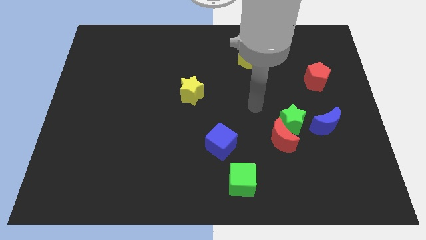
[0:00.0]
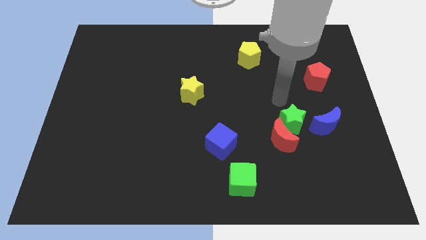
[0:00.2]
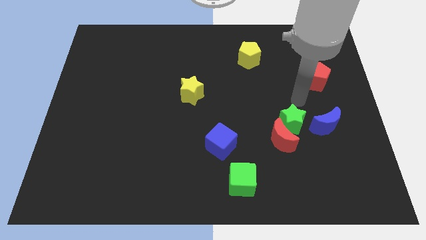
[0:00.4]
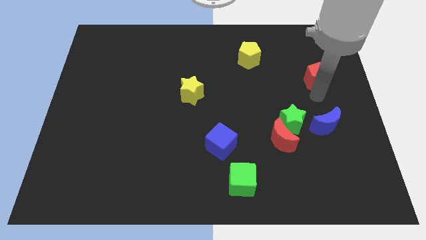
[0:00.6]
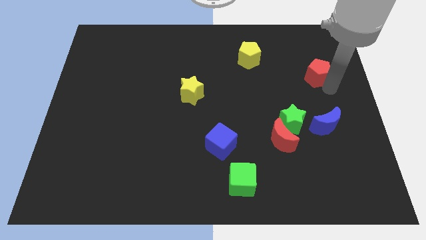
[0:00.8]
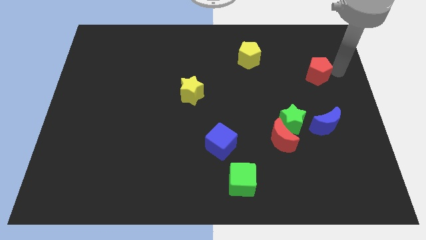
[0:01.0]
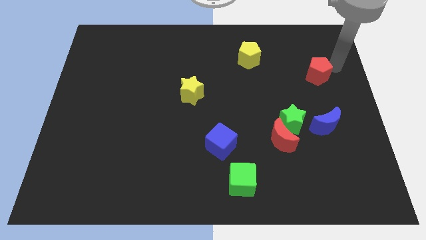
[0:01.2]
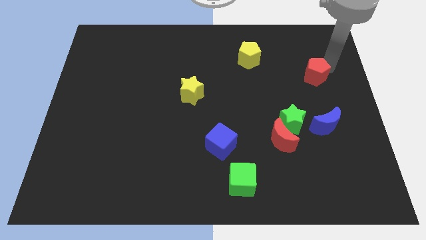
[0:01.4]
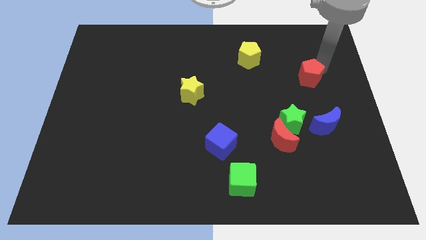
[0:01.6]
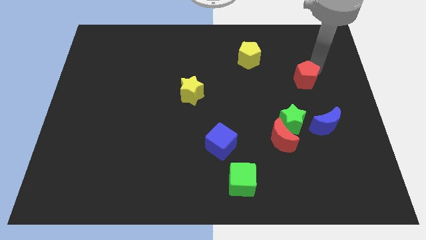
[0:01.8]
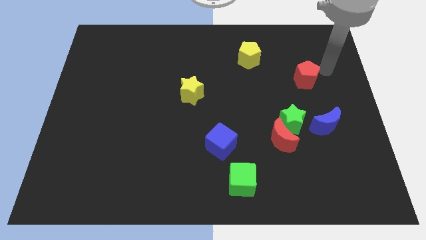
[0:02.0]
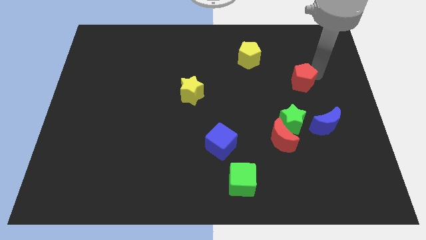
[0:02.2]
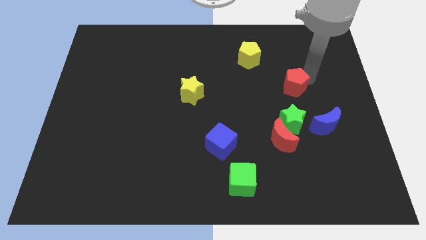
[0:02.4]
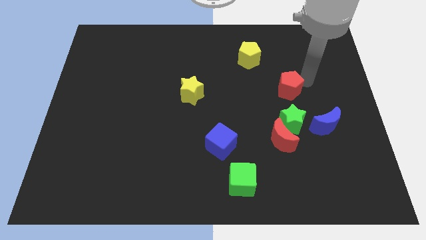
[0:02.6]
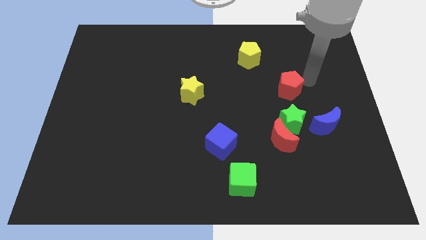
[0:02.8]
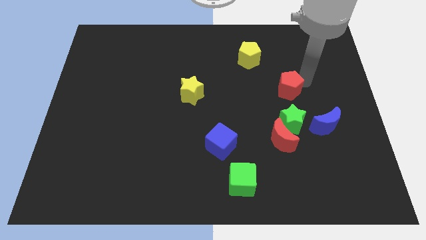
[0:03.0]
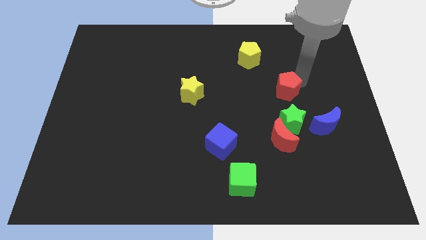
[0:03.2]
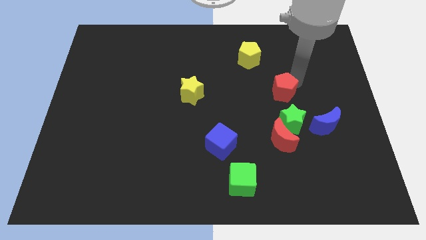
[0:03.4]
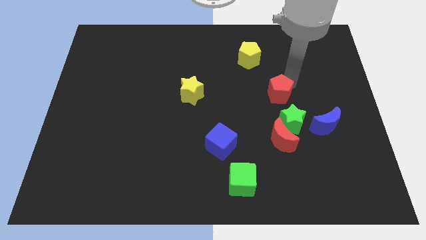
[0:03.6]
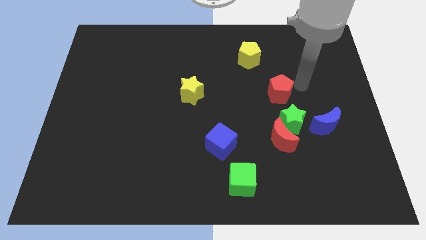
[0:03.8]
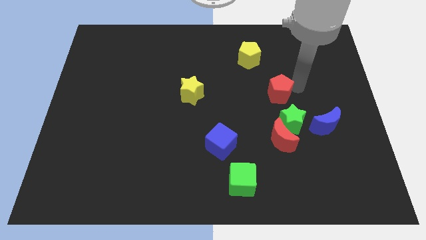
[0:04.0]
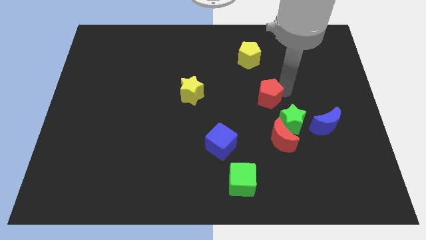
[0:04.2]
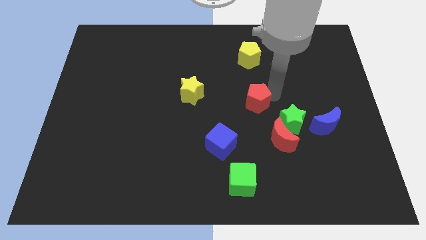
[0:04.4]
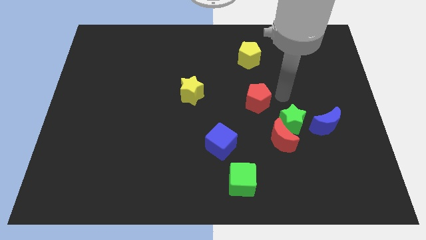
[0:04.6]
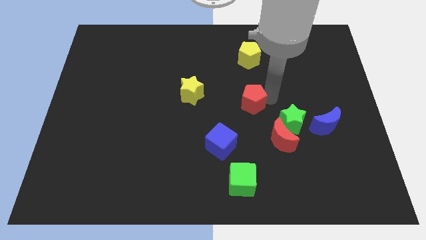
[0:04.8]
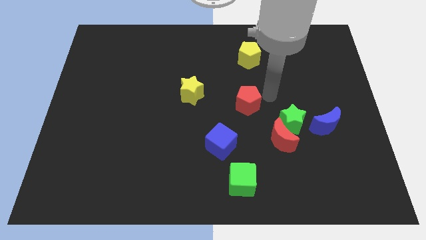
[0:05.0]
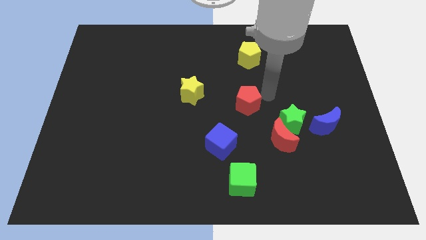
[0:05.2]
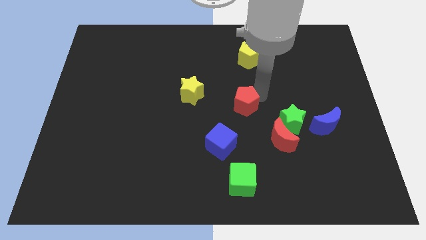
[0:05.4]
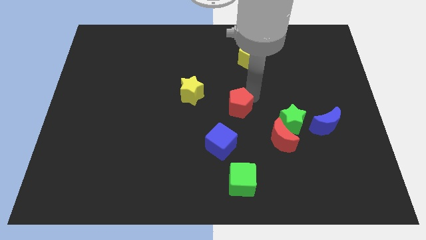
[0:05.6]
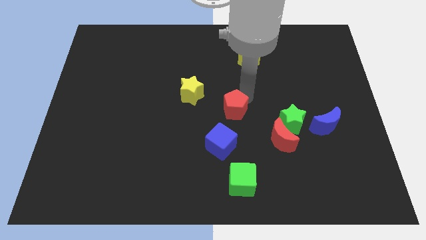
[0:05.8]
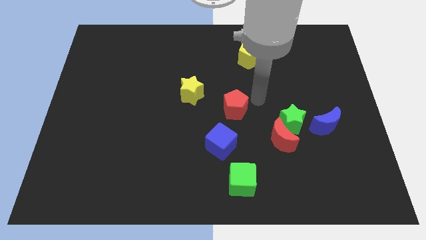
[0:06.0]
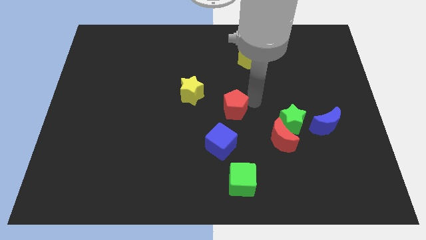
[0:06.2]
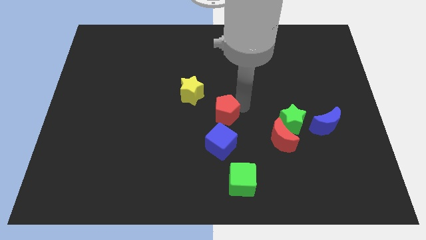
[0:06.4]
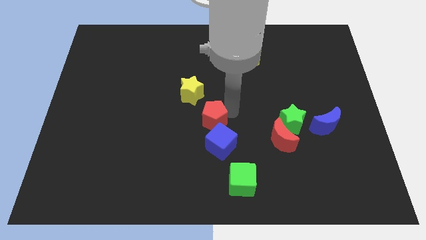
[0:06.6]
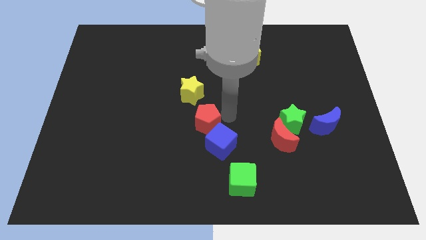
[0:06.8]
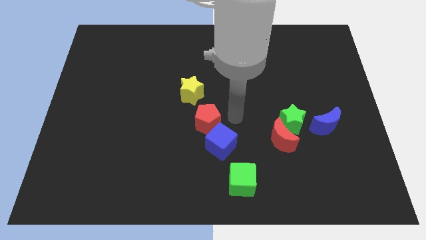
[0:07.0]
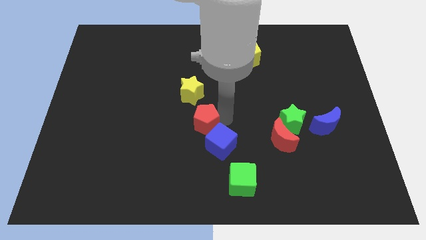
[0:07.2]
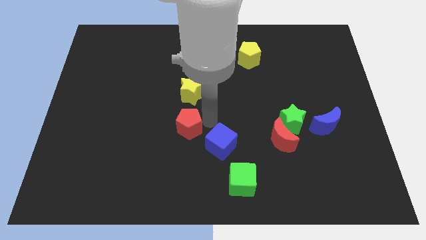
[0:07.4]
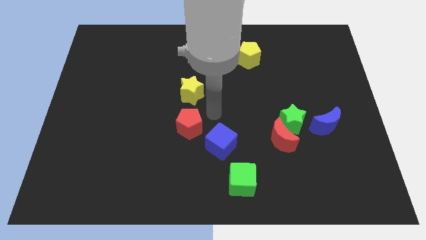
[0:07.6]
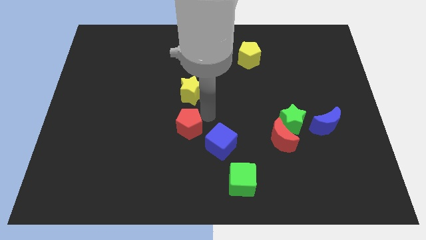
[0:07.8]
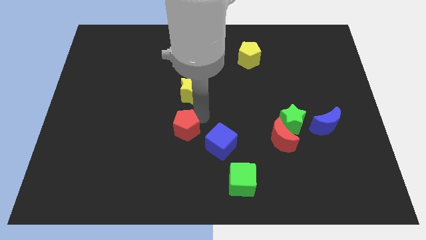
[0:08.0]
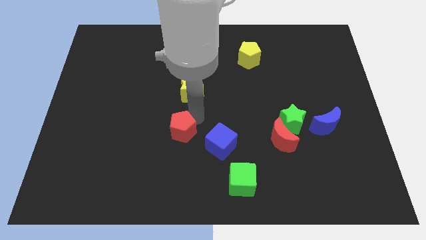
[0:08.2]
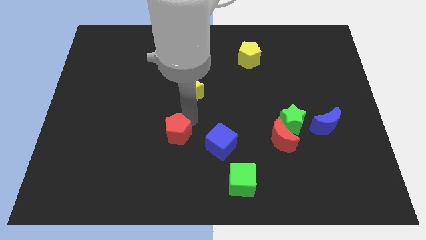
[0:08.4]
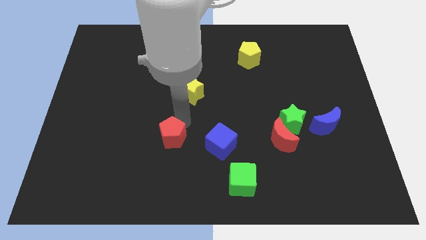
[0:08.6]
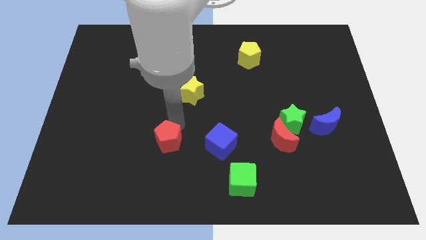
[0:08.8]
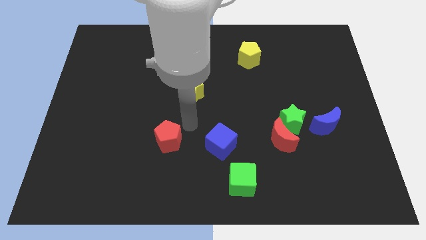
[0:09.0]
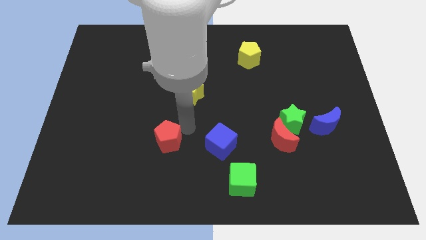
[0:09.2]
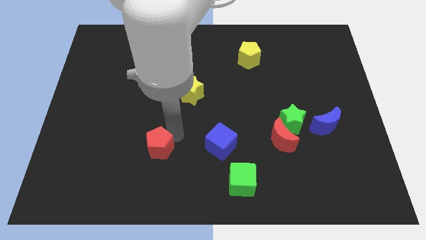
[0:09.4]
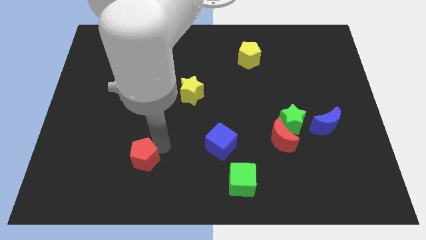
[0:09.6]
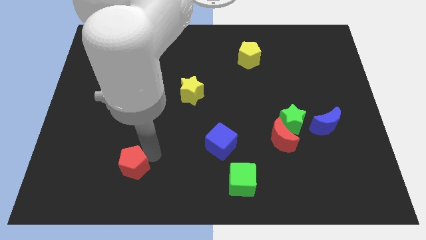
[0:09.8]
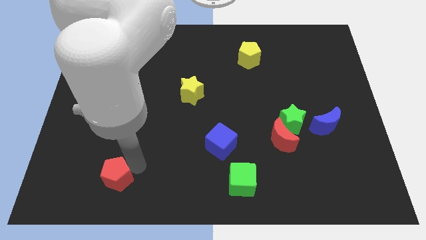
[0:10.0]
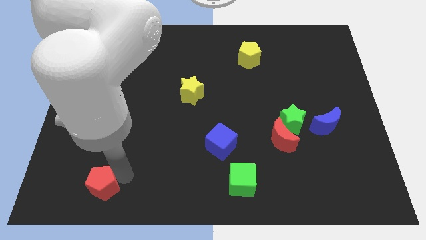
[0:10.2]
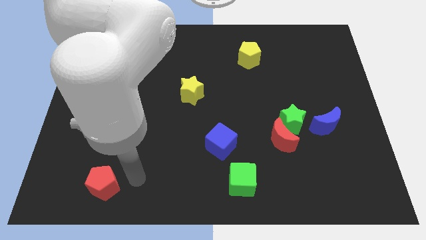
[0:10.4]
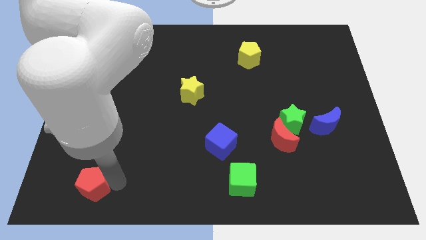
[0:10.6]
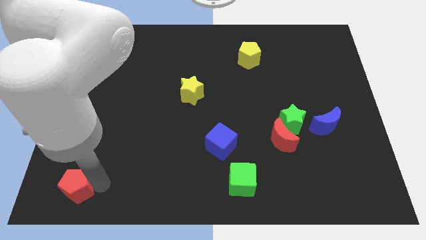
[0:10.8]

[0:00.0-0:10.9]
slide the red pentagon to the bottom left corner

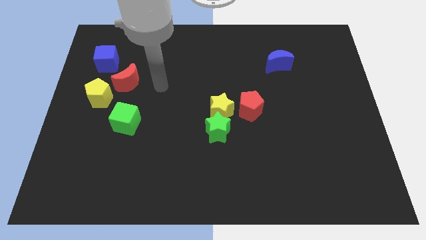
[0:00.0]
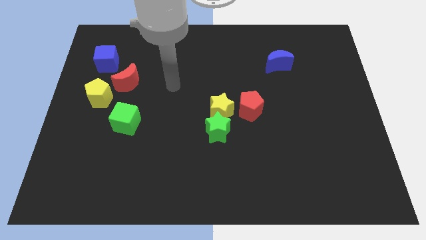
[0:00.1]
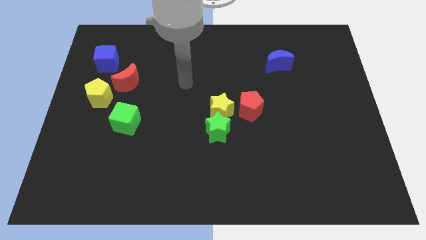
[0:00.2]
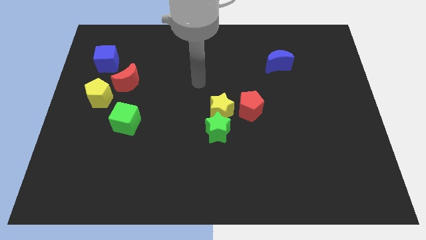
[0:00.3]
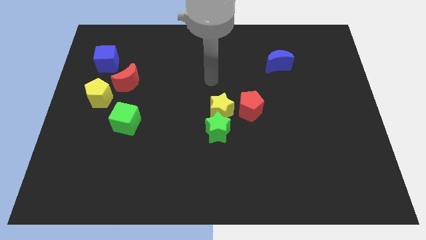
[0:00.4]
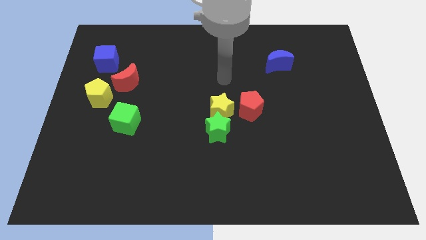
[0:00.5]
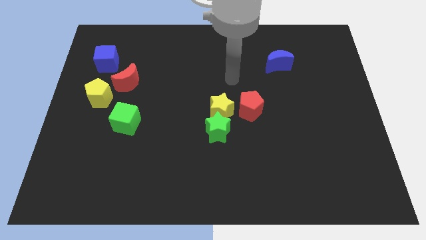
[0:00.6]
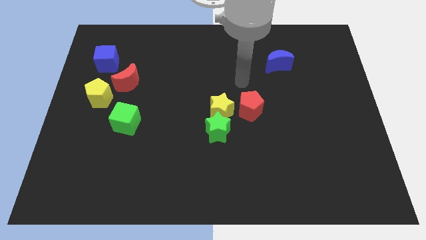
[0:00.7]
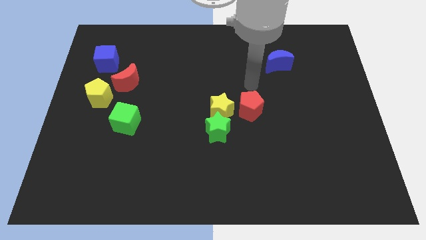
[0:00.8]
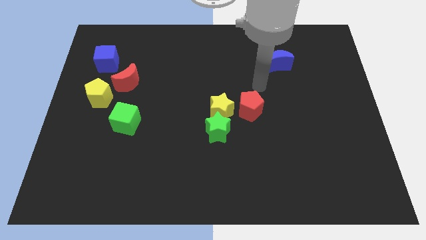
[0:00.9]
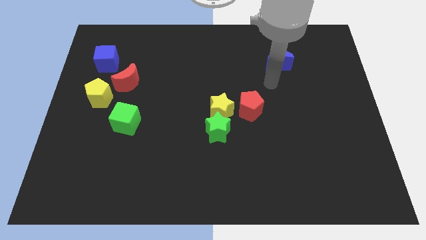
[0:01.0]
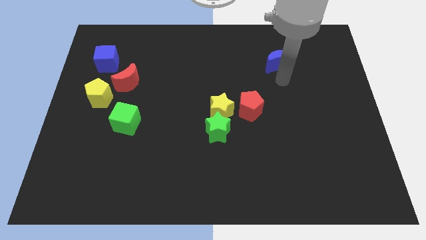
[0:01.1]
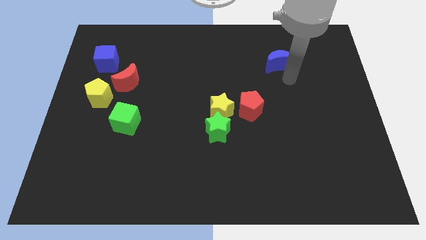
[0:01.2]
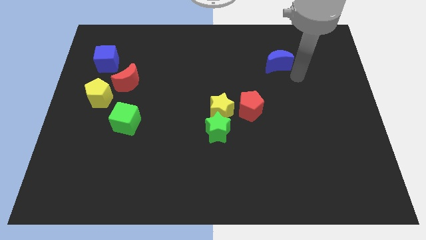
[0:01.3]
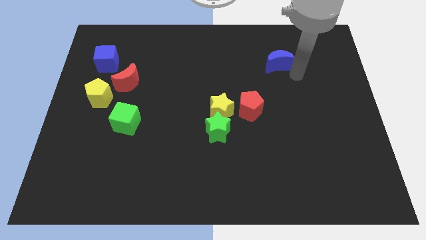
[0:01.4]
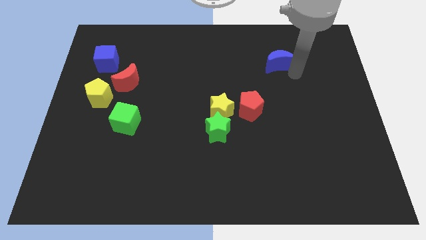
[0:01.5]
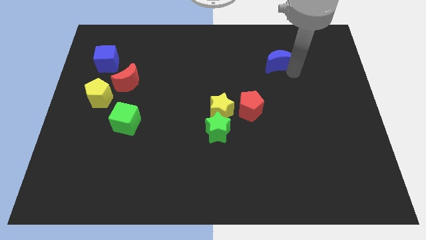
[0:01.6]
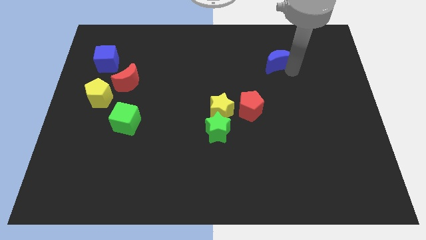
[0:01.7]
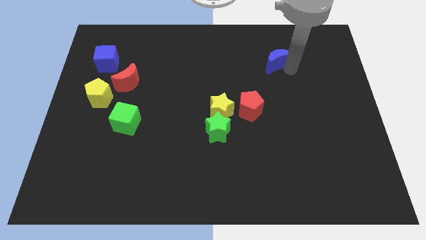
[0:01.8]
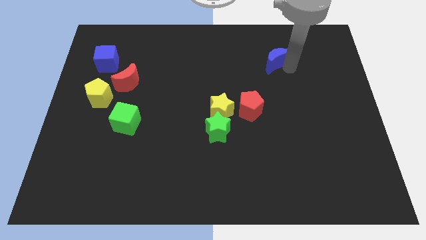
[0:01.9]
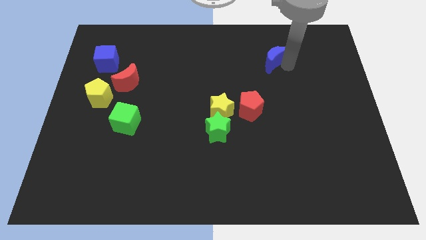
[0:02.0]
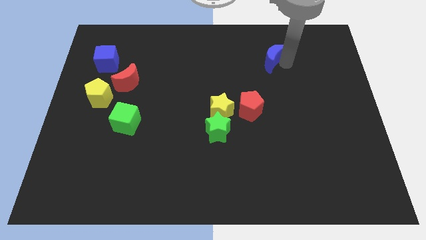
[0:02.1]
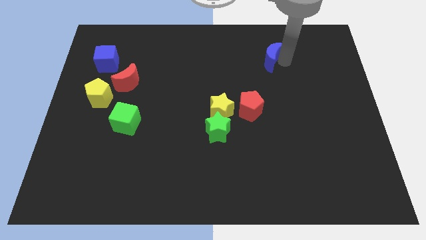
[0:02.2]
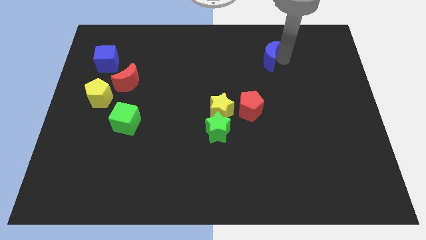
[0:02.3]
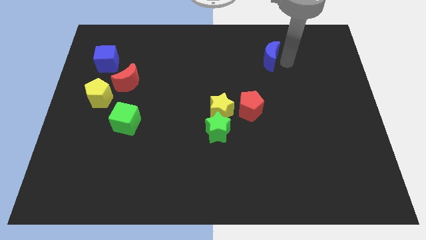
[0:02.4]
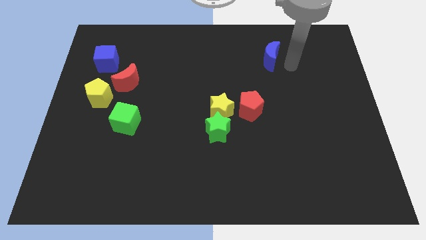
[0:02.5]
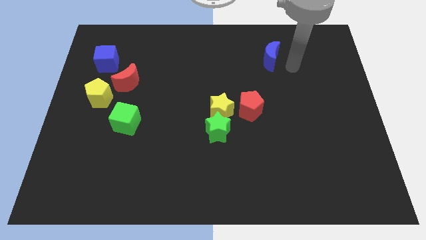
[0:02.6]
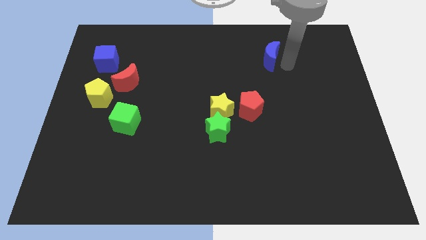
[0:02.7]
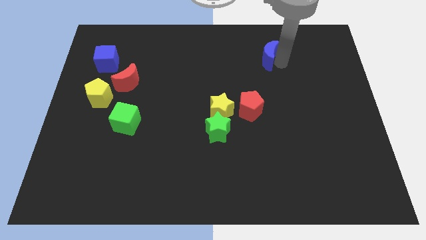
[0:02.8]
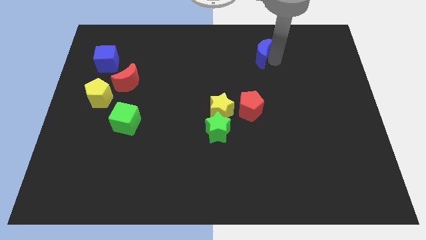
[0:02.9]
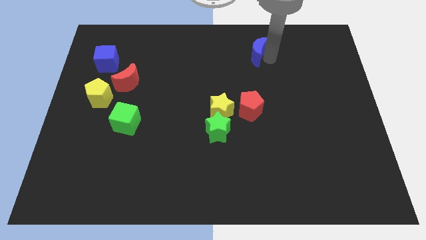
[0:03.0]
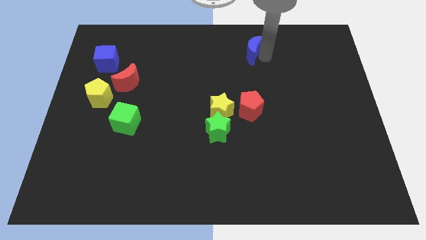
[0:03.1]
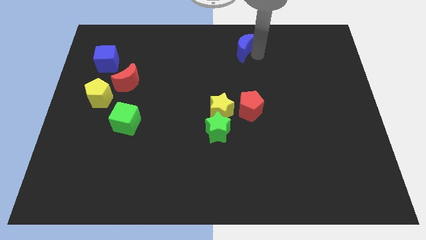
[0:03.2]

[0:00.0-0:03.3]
push the blue moon to the top side
